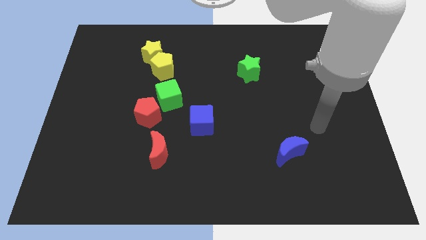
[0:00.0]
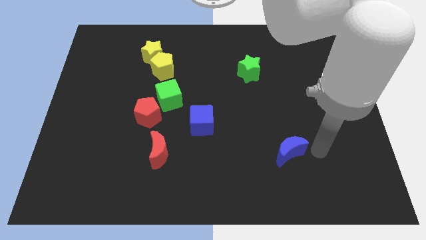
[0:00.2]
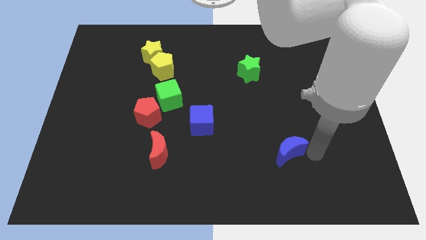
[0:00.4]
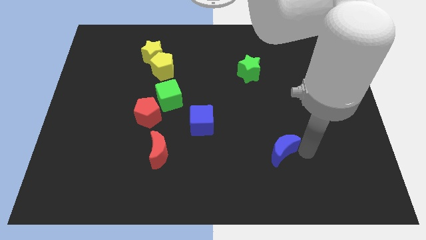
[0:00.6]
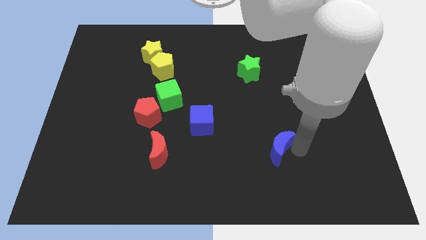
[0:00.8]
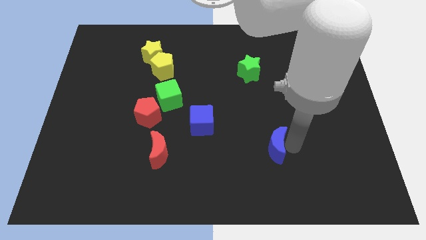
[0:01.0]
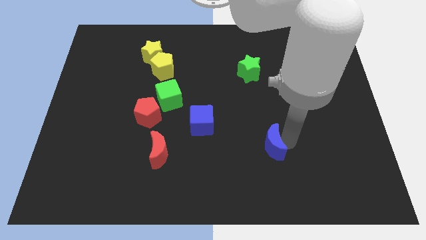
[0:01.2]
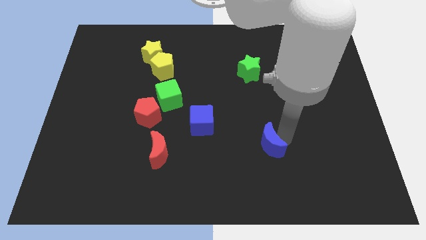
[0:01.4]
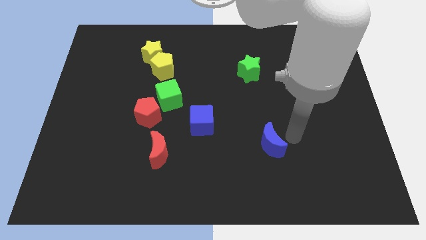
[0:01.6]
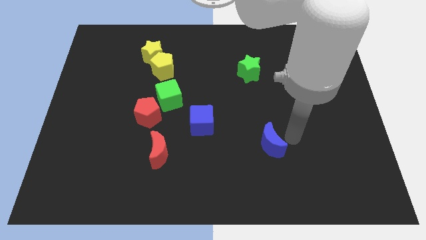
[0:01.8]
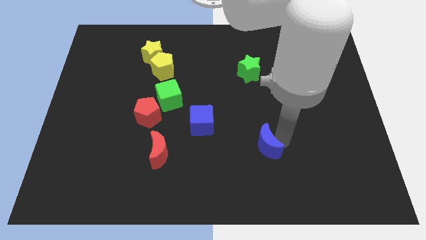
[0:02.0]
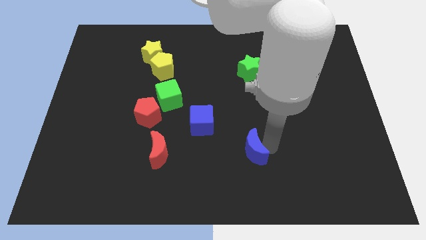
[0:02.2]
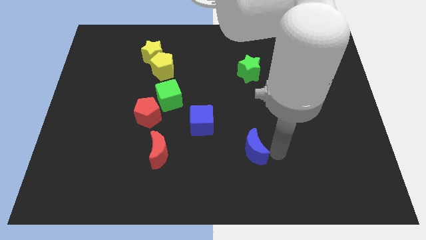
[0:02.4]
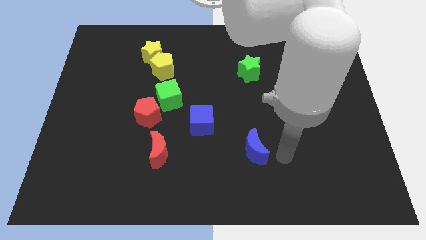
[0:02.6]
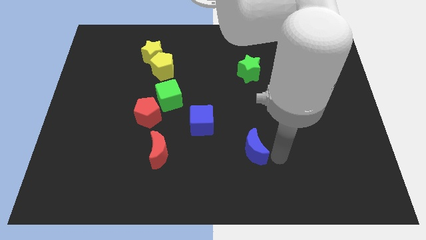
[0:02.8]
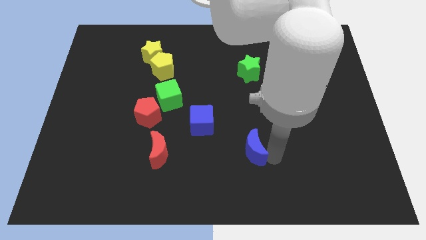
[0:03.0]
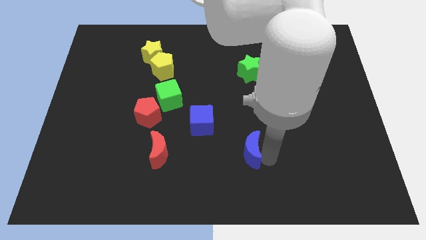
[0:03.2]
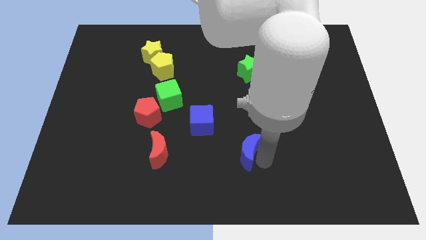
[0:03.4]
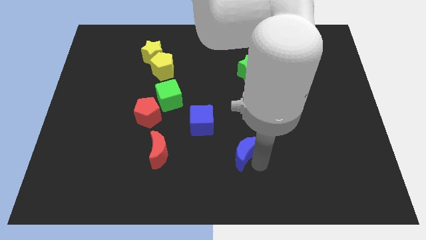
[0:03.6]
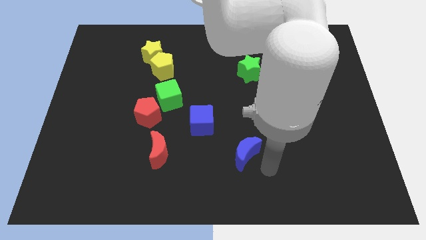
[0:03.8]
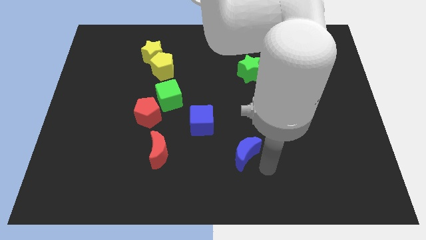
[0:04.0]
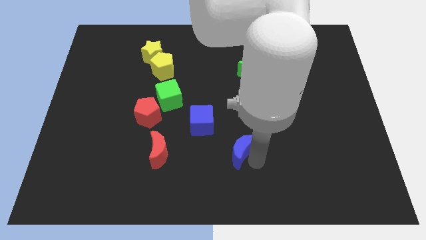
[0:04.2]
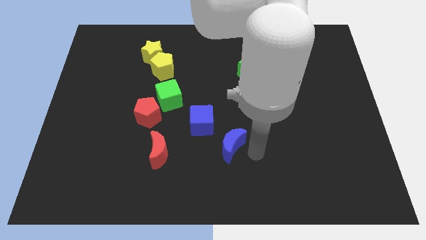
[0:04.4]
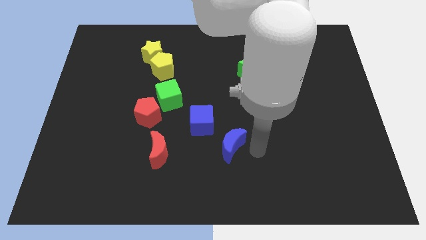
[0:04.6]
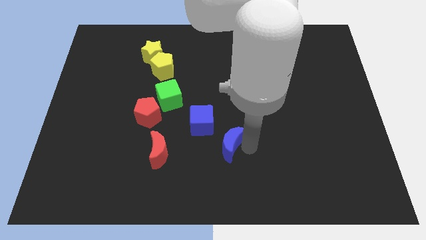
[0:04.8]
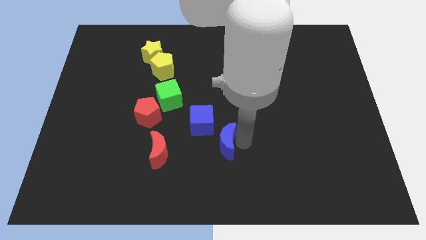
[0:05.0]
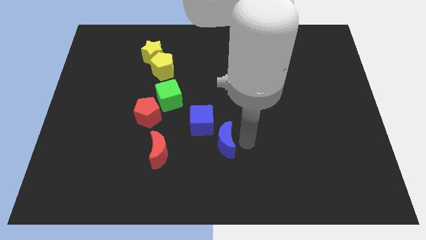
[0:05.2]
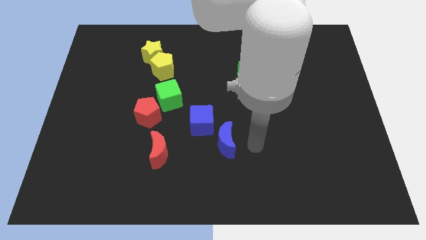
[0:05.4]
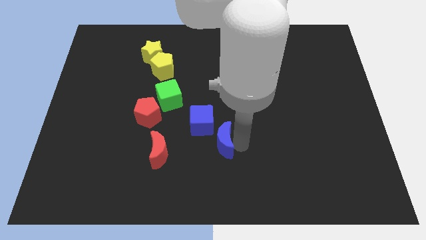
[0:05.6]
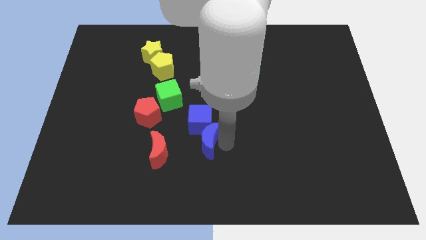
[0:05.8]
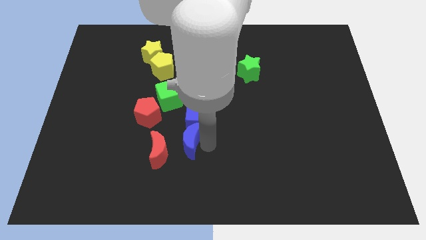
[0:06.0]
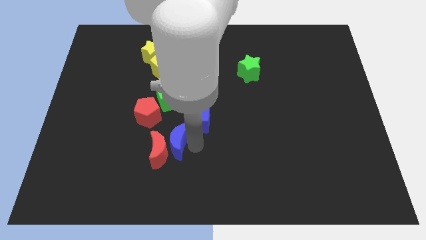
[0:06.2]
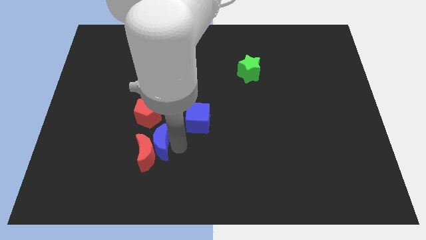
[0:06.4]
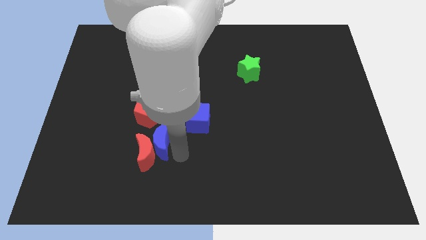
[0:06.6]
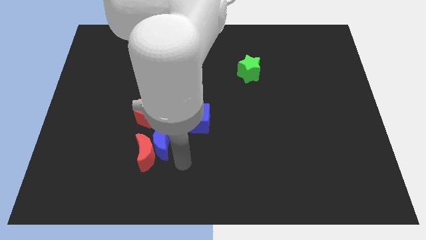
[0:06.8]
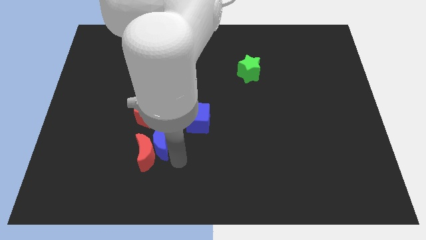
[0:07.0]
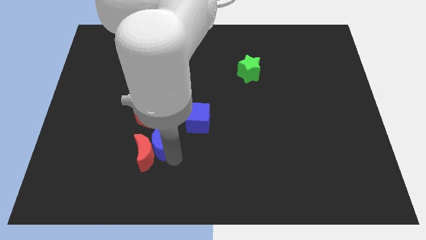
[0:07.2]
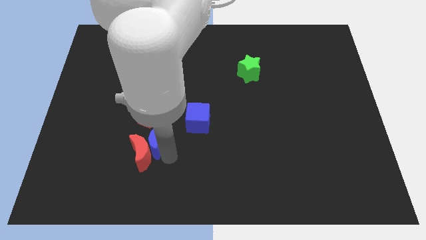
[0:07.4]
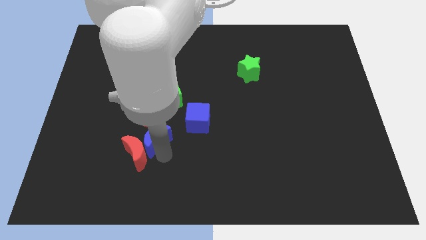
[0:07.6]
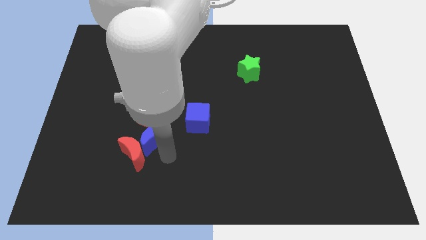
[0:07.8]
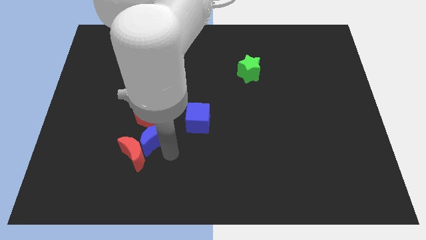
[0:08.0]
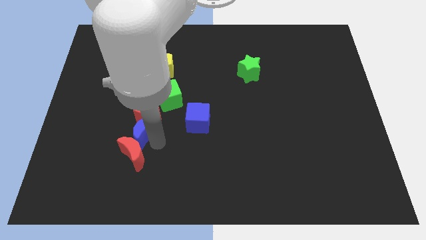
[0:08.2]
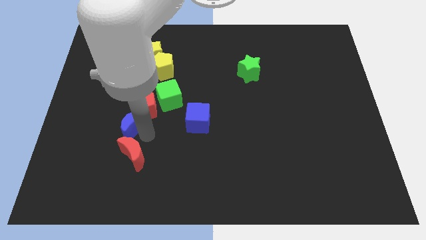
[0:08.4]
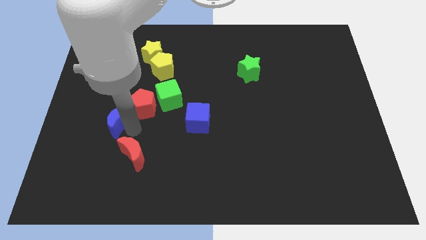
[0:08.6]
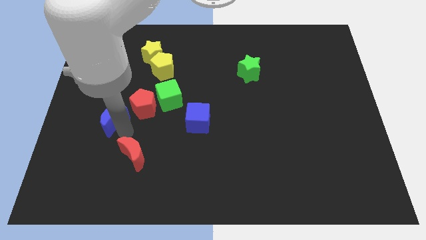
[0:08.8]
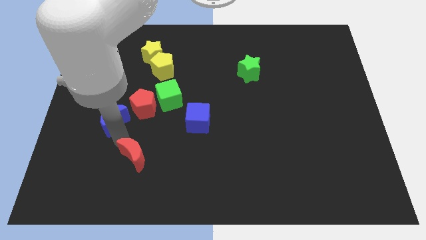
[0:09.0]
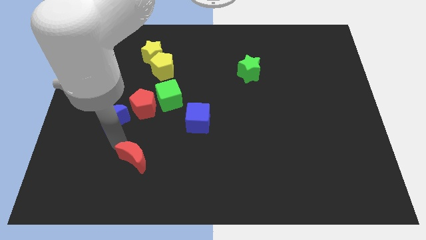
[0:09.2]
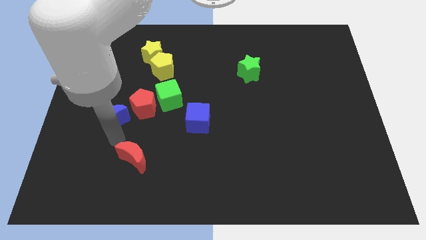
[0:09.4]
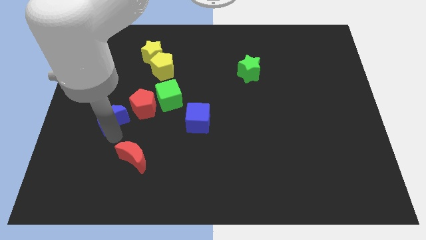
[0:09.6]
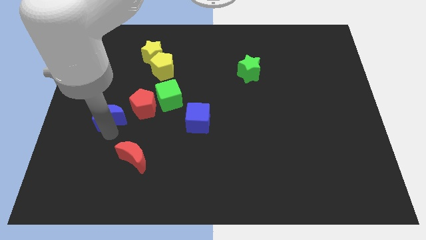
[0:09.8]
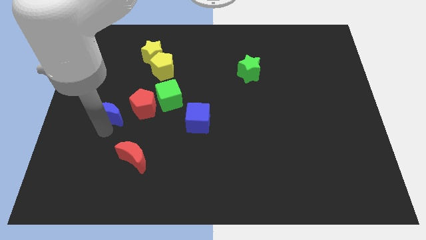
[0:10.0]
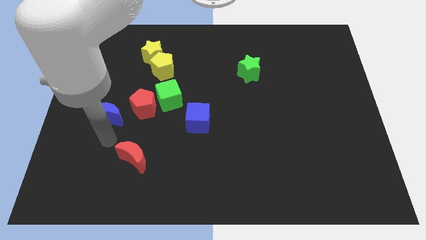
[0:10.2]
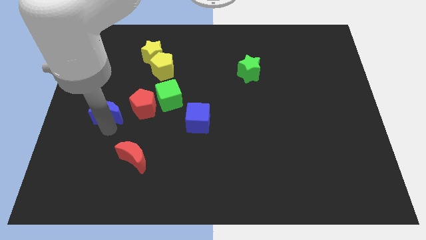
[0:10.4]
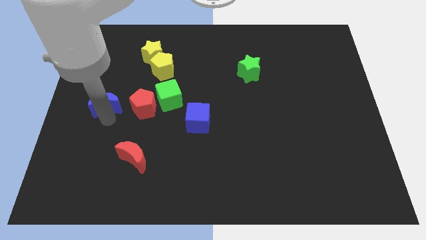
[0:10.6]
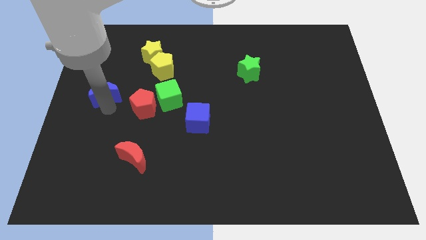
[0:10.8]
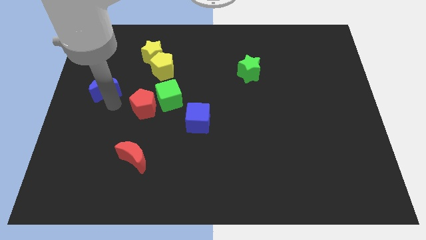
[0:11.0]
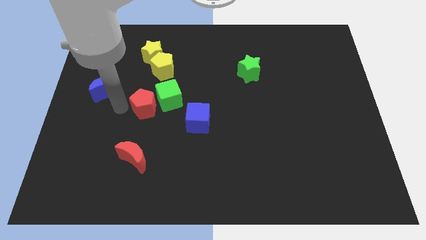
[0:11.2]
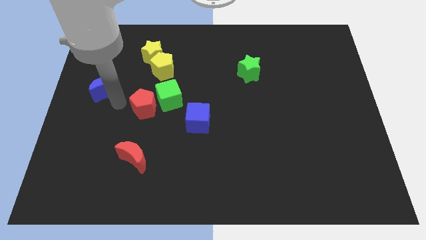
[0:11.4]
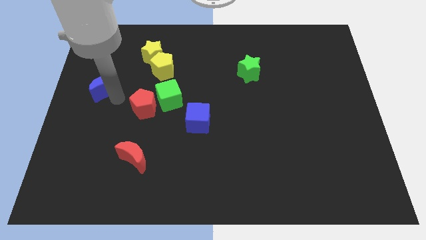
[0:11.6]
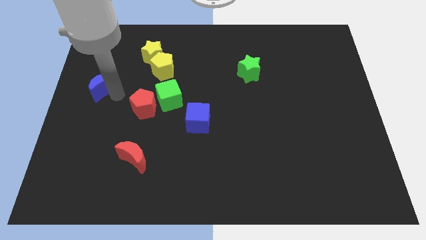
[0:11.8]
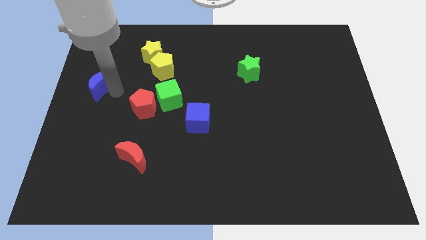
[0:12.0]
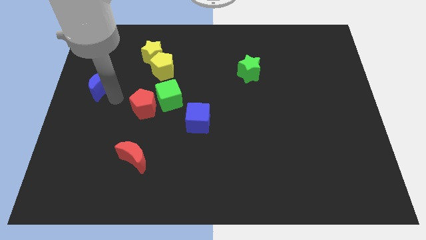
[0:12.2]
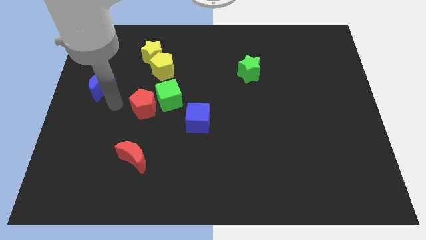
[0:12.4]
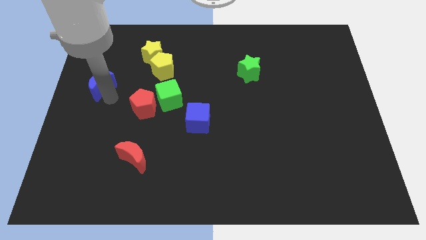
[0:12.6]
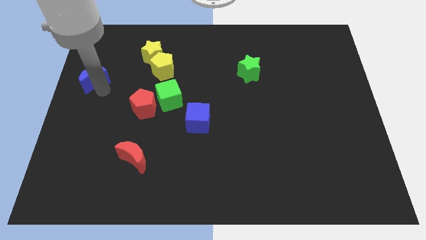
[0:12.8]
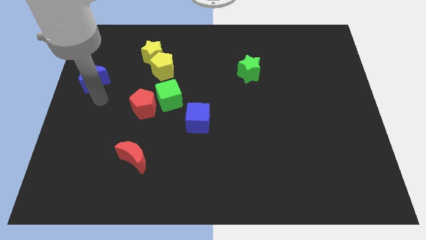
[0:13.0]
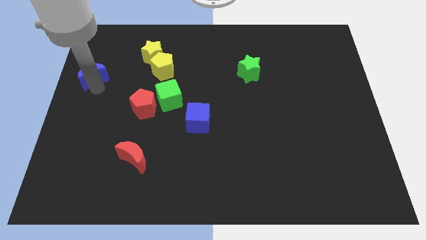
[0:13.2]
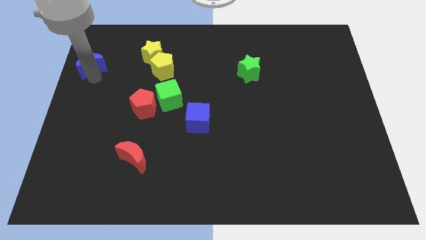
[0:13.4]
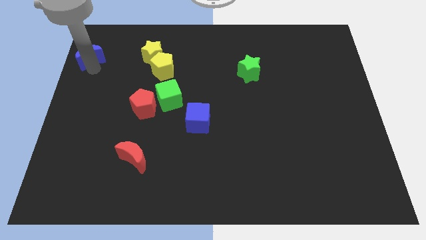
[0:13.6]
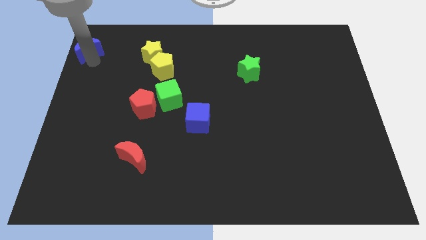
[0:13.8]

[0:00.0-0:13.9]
put the blue moon to the top left of the board
